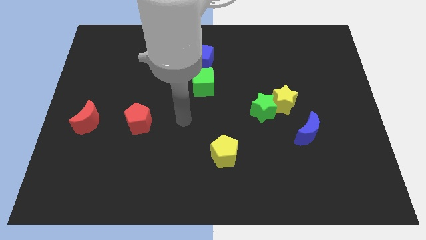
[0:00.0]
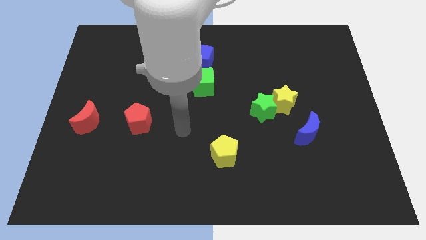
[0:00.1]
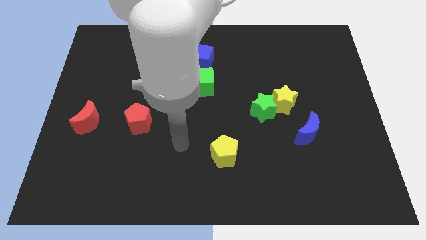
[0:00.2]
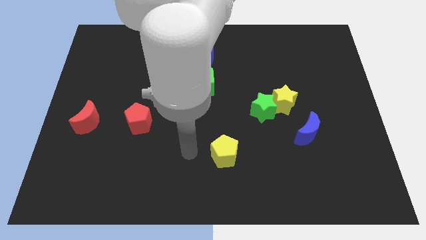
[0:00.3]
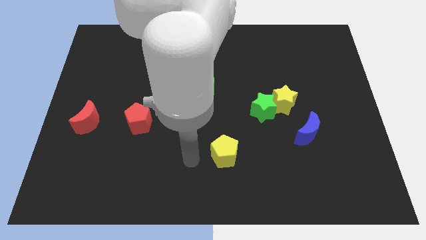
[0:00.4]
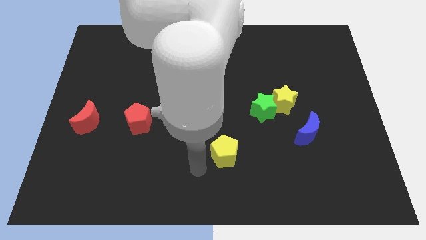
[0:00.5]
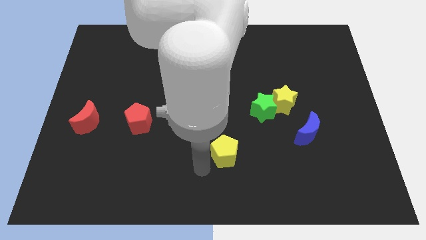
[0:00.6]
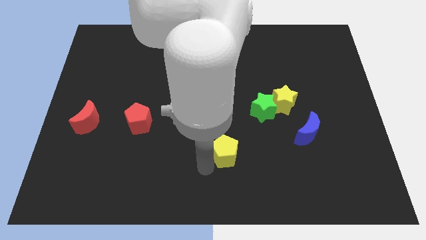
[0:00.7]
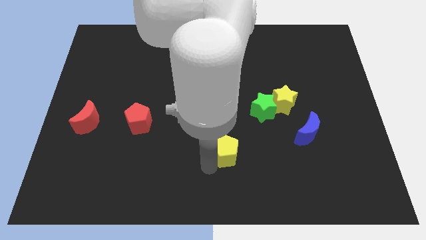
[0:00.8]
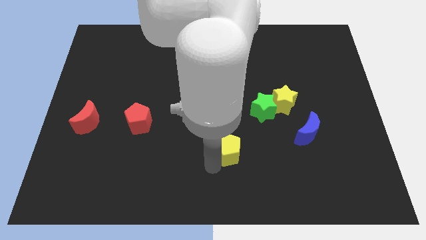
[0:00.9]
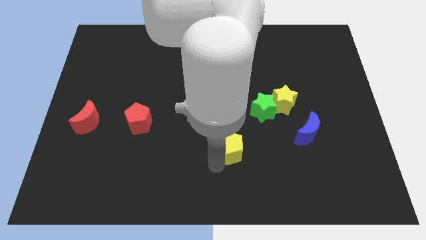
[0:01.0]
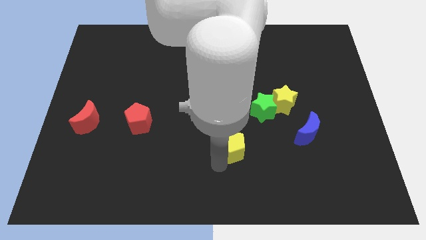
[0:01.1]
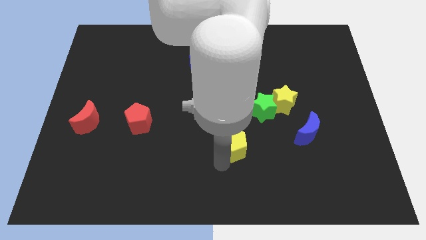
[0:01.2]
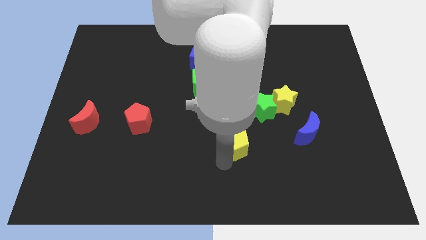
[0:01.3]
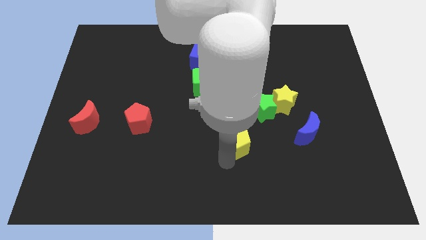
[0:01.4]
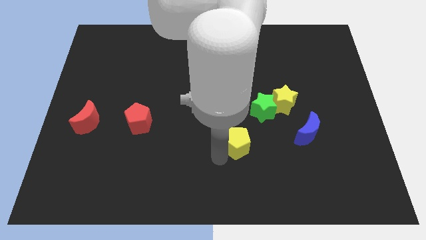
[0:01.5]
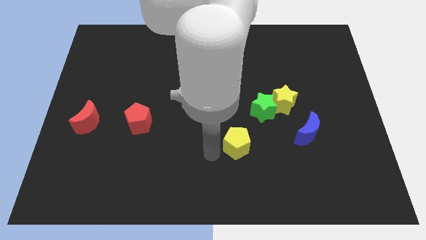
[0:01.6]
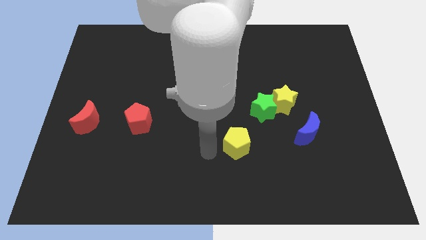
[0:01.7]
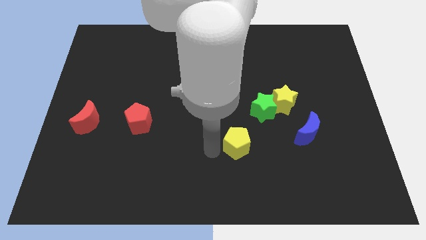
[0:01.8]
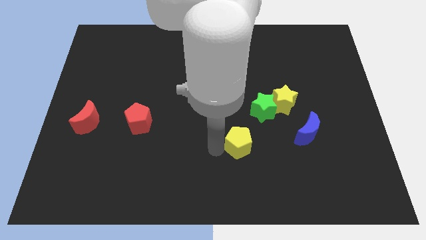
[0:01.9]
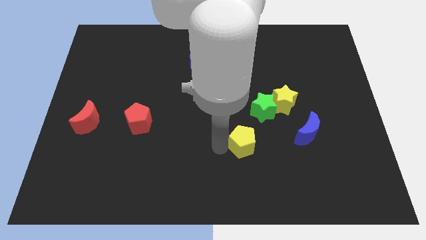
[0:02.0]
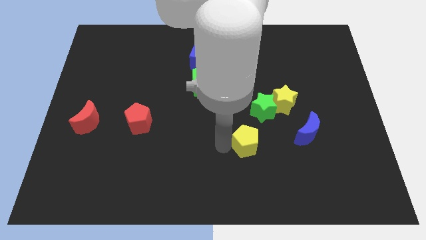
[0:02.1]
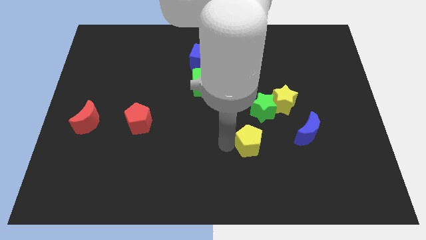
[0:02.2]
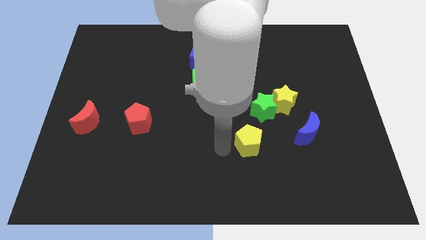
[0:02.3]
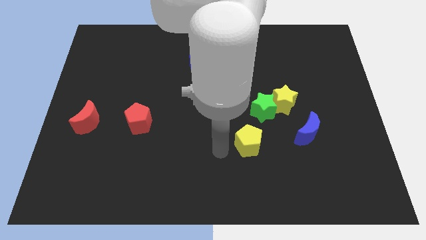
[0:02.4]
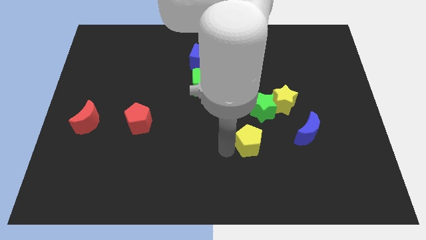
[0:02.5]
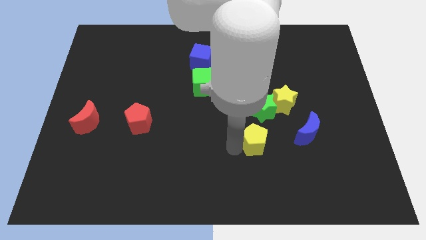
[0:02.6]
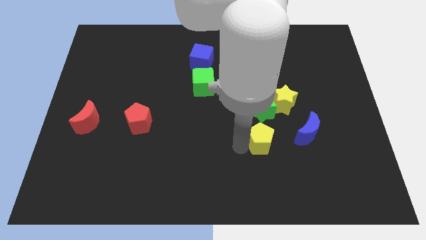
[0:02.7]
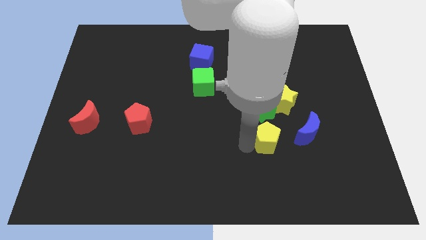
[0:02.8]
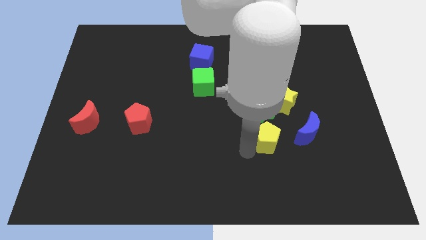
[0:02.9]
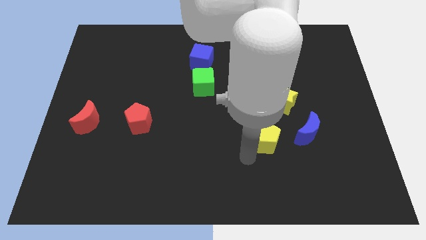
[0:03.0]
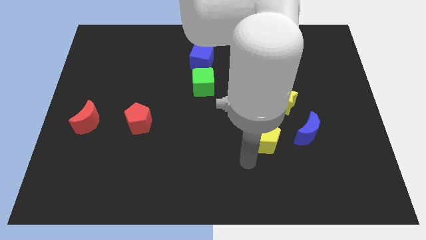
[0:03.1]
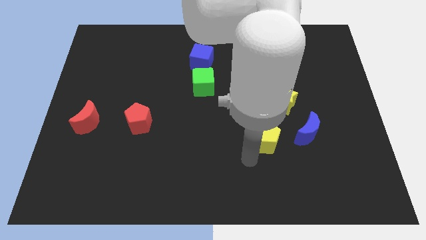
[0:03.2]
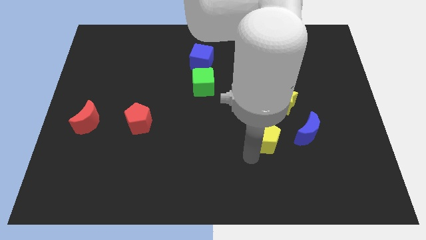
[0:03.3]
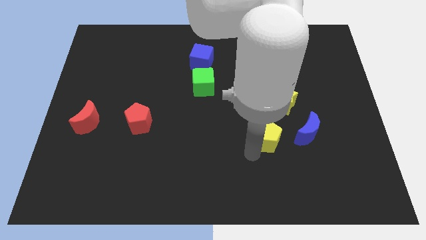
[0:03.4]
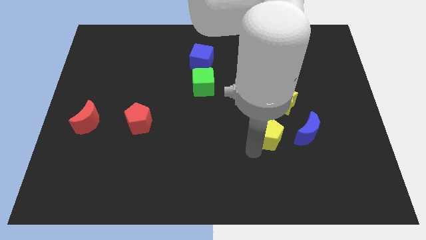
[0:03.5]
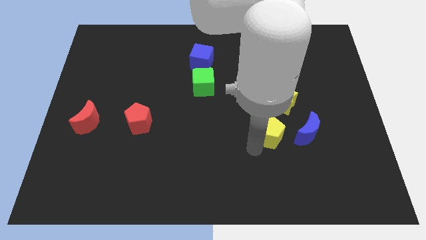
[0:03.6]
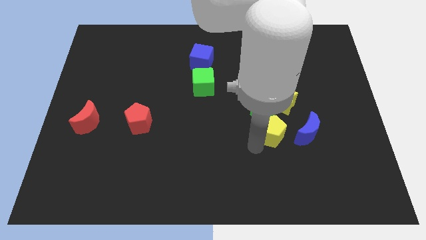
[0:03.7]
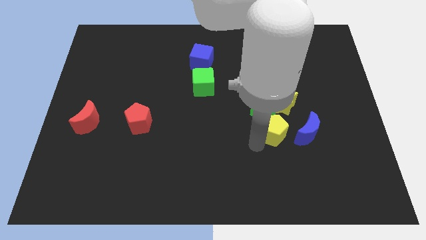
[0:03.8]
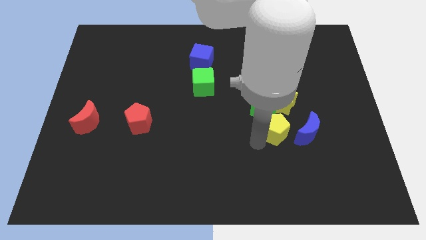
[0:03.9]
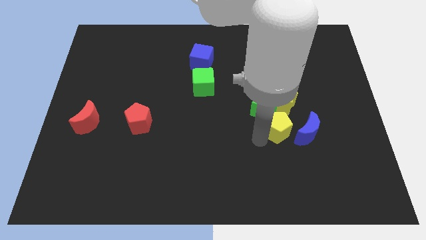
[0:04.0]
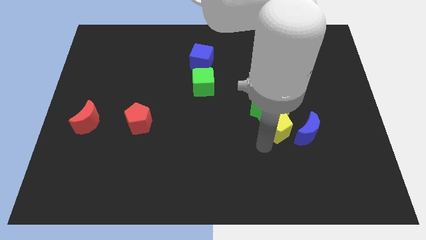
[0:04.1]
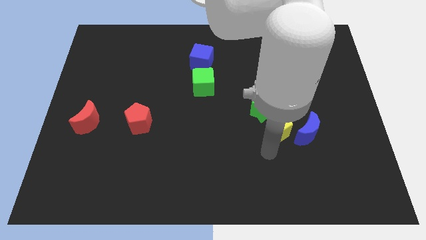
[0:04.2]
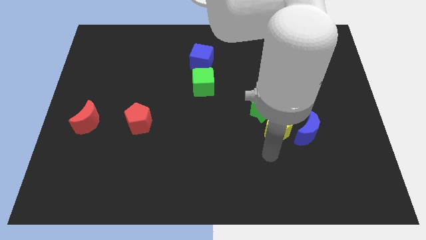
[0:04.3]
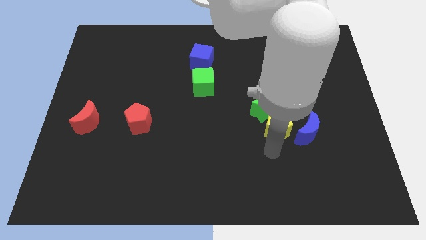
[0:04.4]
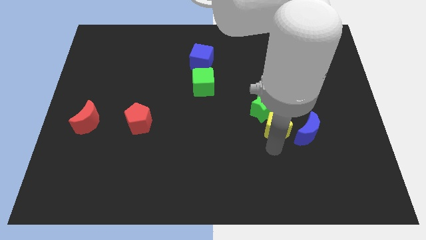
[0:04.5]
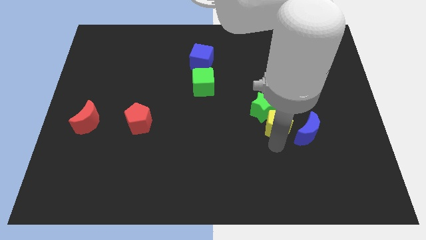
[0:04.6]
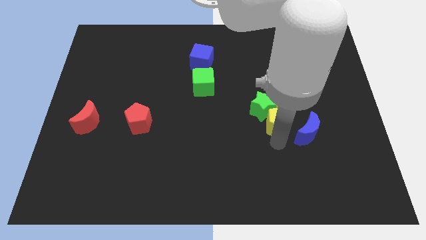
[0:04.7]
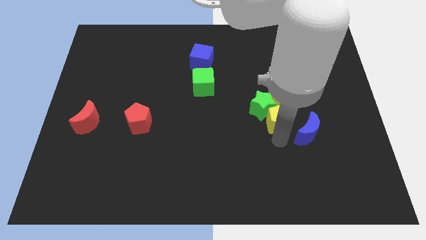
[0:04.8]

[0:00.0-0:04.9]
push the yellow pentagon next to the yellow star

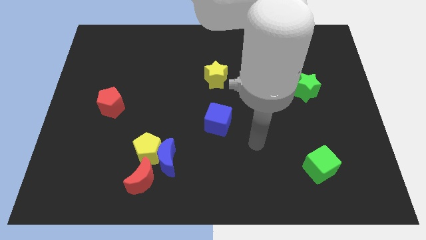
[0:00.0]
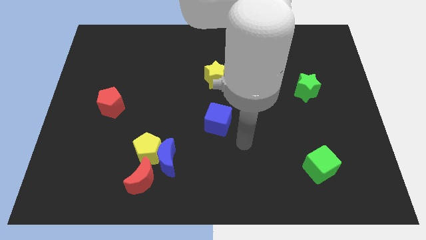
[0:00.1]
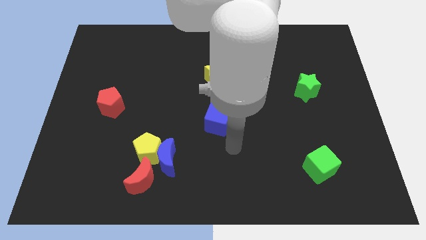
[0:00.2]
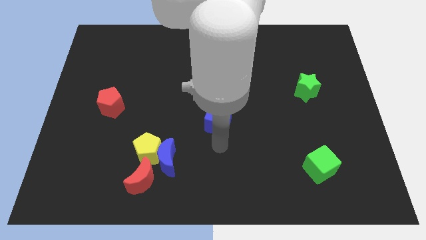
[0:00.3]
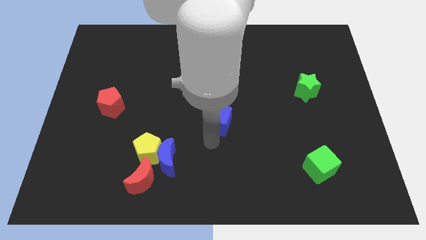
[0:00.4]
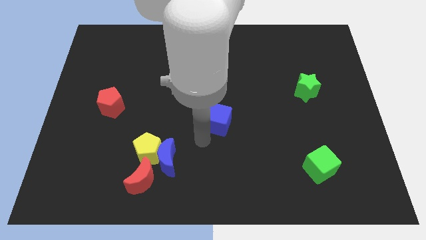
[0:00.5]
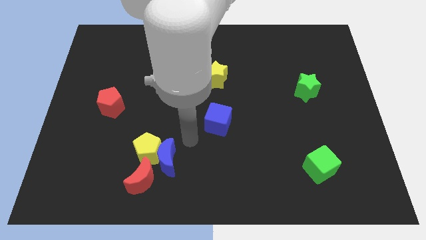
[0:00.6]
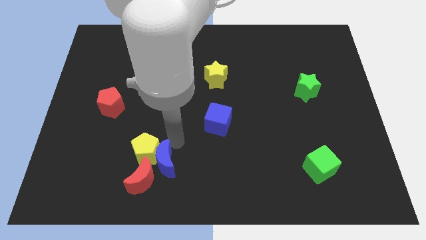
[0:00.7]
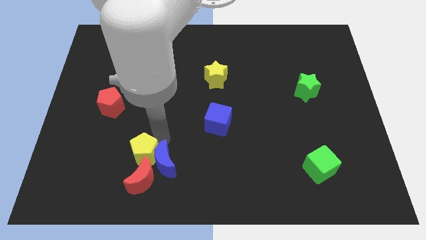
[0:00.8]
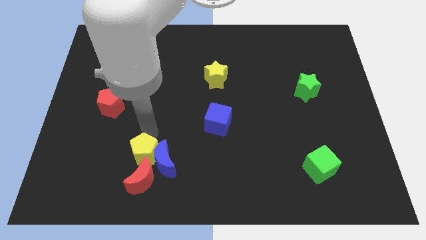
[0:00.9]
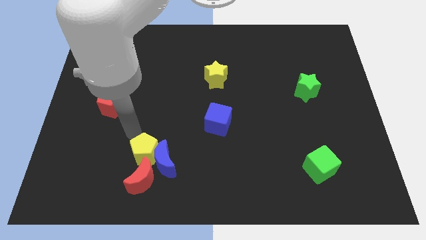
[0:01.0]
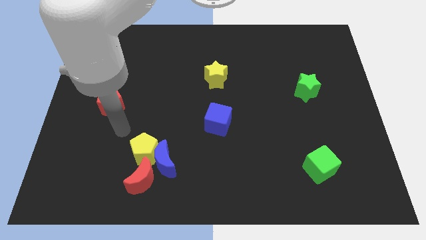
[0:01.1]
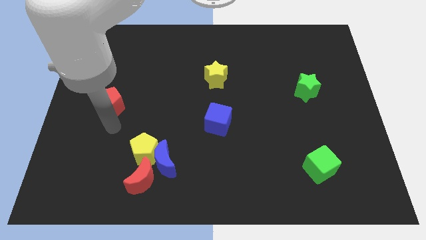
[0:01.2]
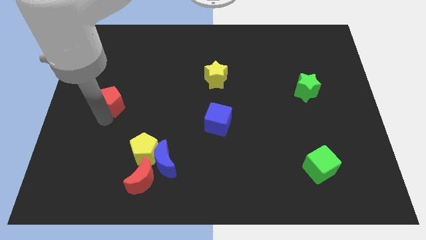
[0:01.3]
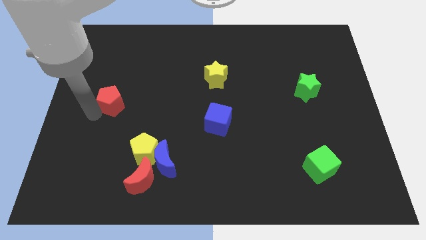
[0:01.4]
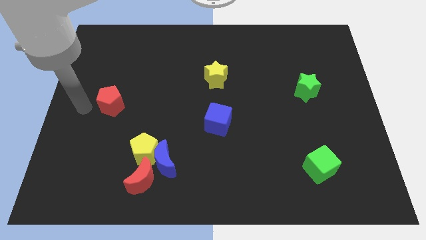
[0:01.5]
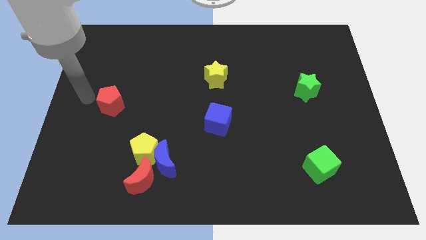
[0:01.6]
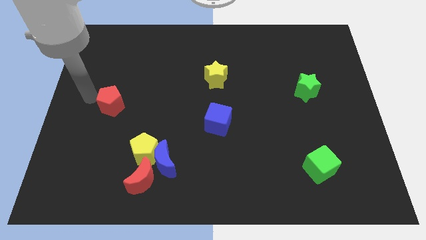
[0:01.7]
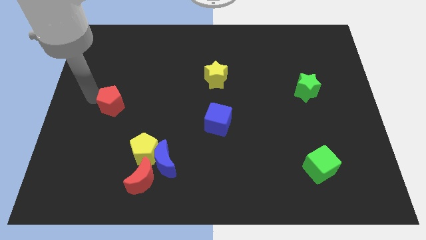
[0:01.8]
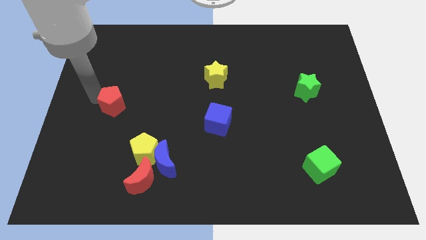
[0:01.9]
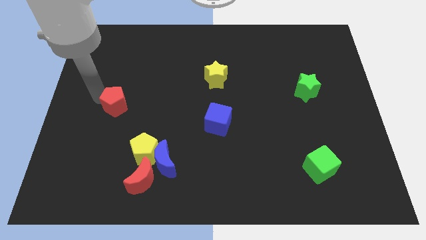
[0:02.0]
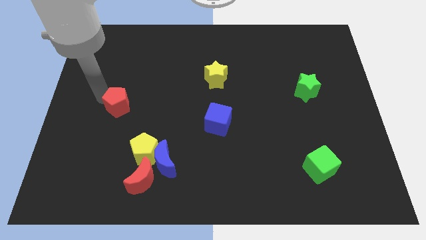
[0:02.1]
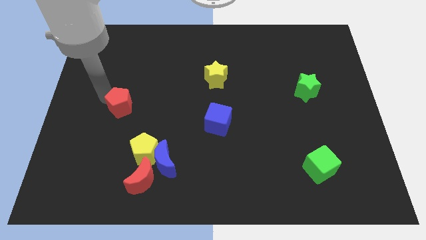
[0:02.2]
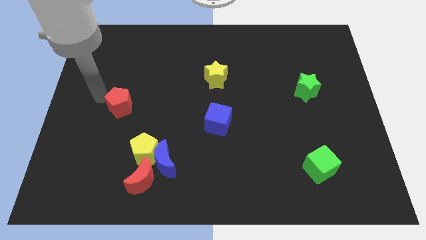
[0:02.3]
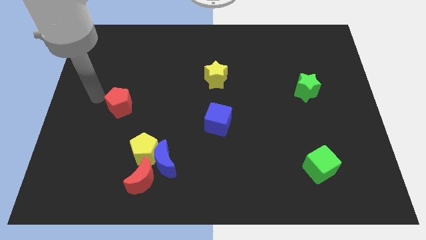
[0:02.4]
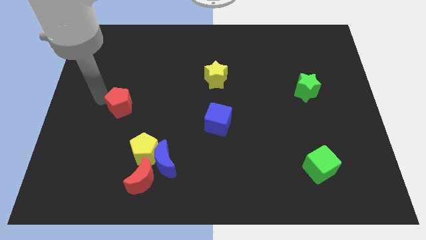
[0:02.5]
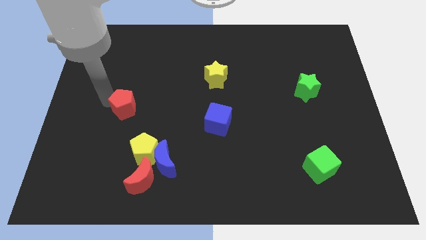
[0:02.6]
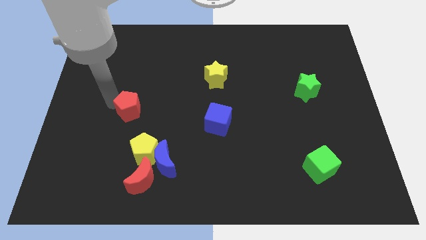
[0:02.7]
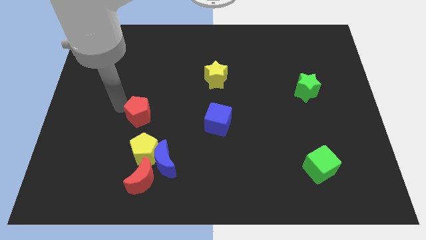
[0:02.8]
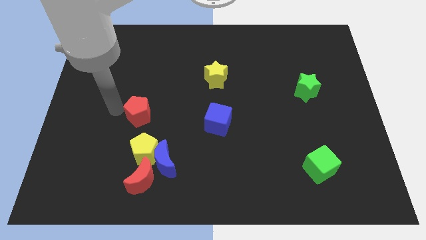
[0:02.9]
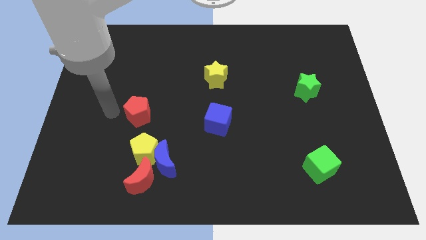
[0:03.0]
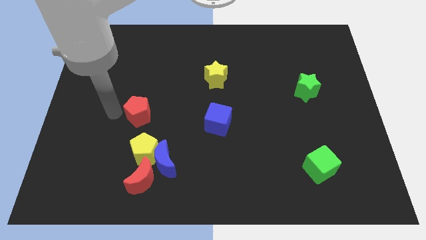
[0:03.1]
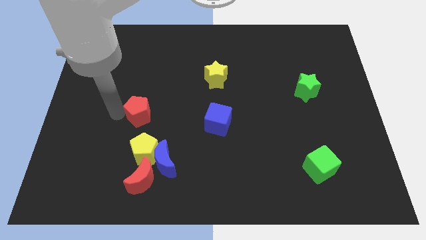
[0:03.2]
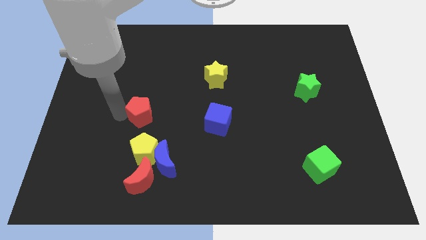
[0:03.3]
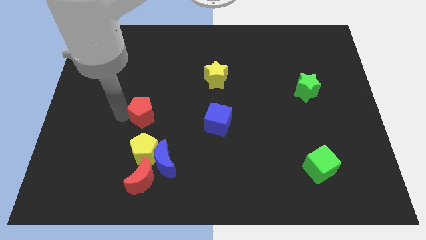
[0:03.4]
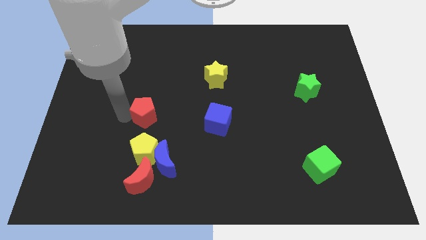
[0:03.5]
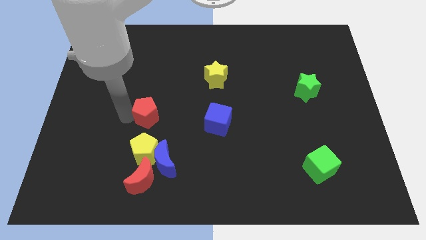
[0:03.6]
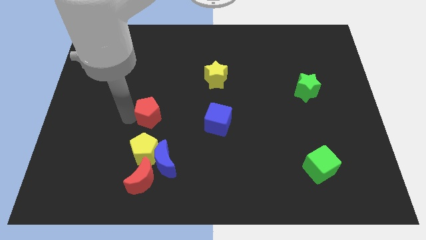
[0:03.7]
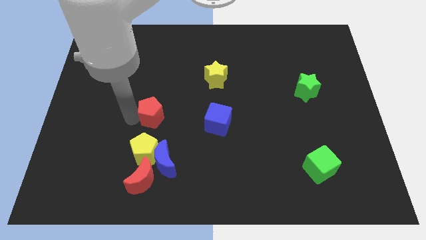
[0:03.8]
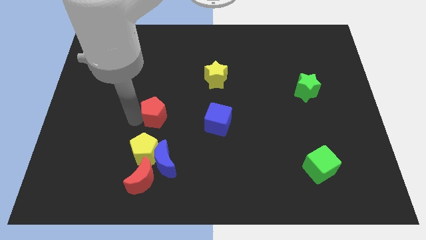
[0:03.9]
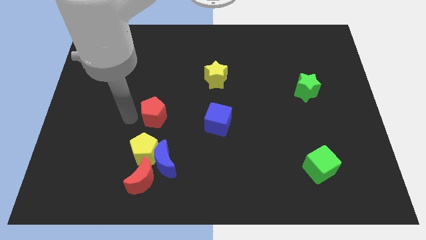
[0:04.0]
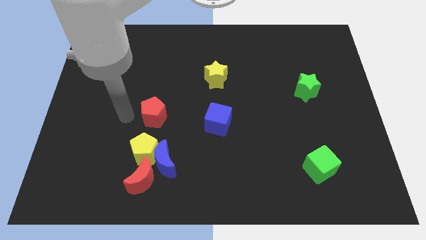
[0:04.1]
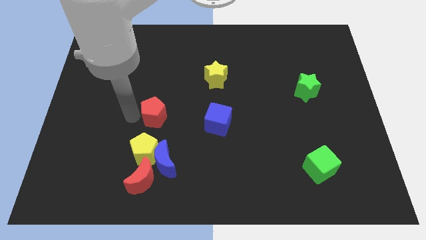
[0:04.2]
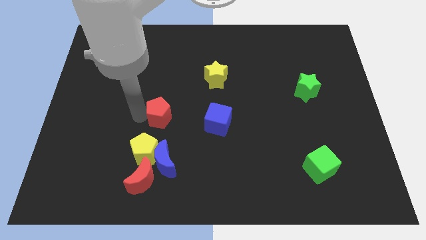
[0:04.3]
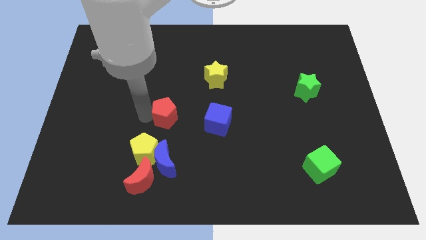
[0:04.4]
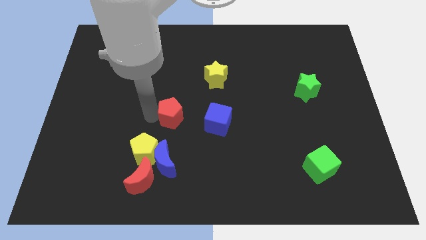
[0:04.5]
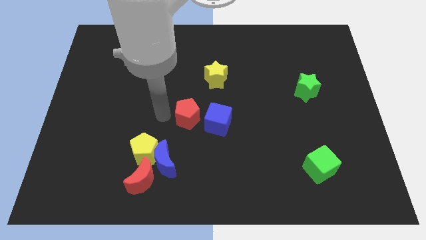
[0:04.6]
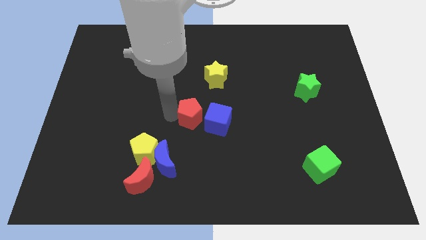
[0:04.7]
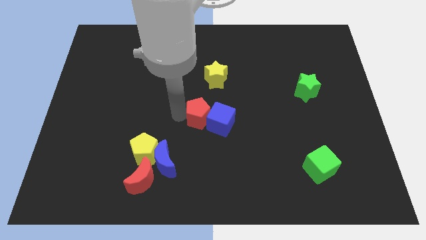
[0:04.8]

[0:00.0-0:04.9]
put the red pentagon towards the blue cube
